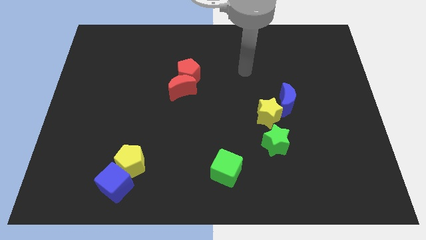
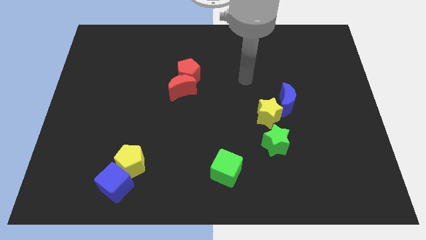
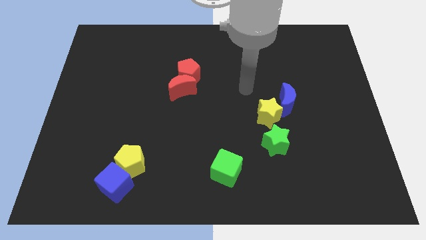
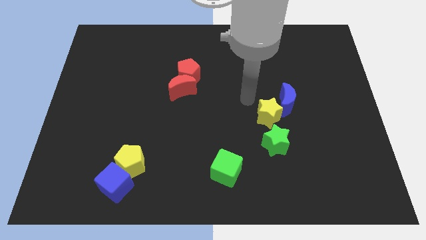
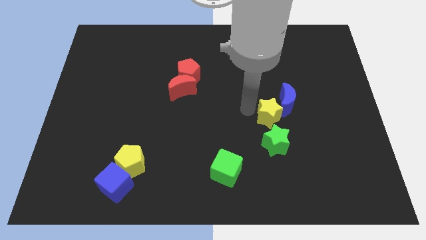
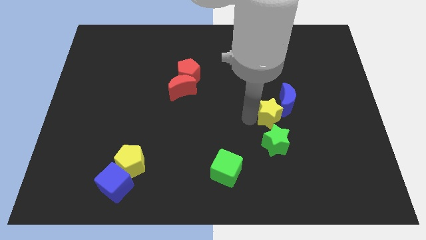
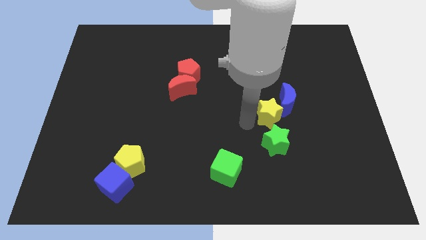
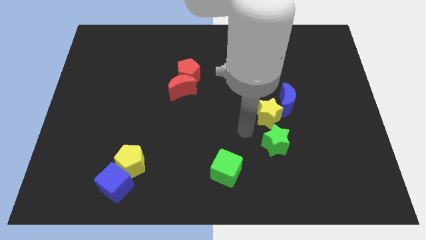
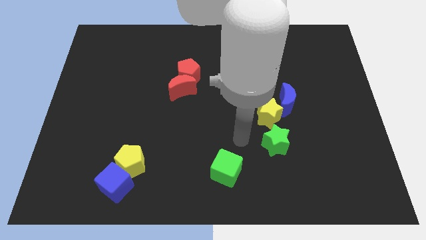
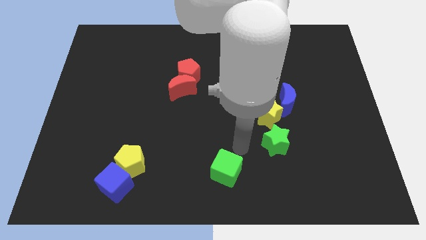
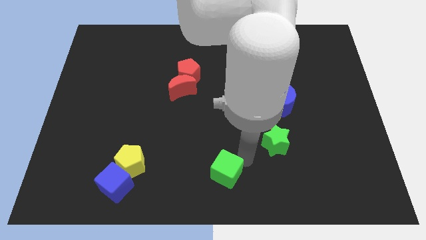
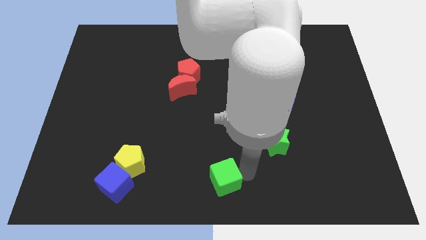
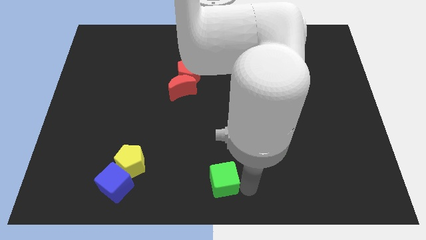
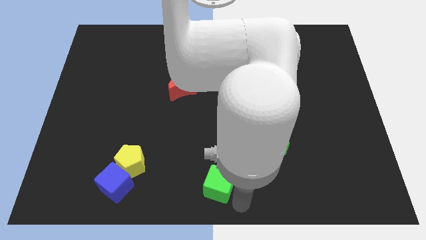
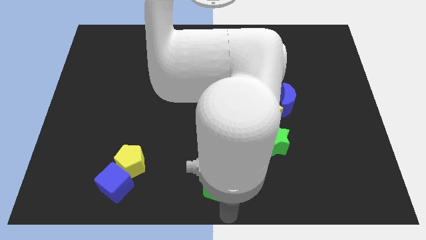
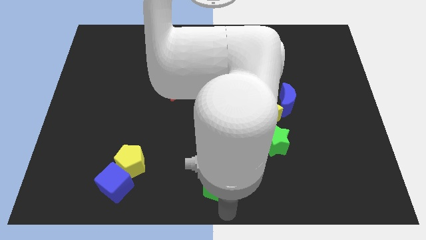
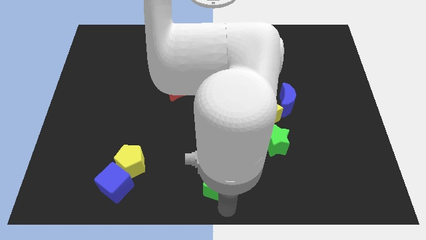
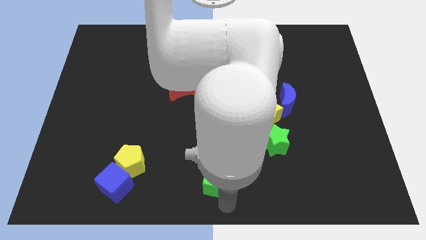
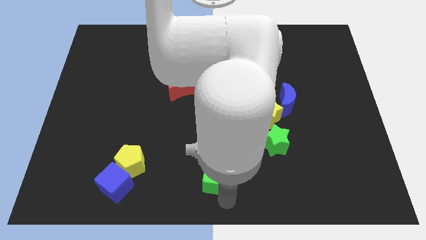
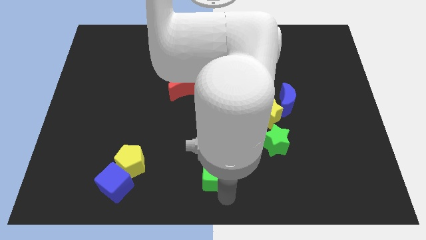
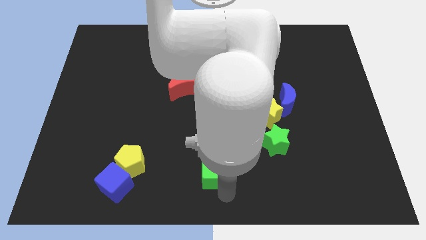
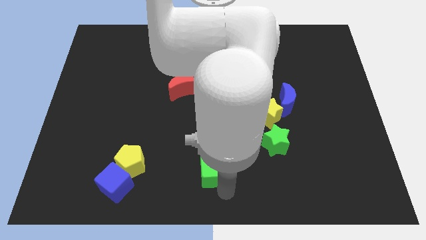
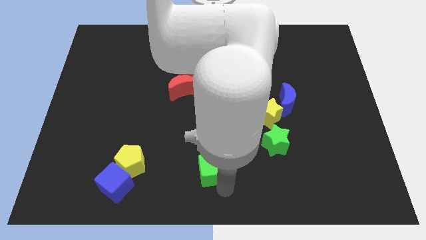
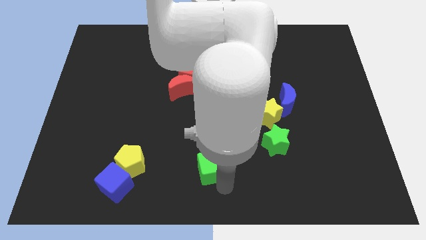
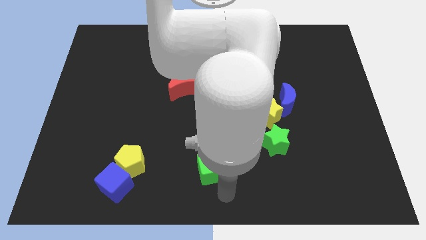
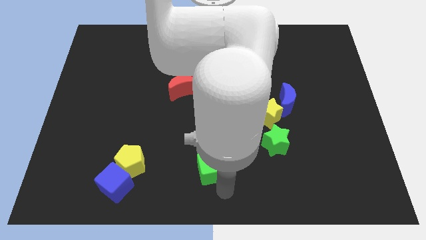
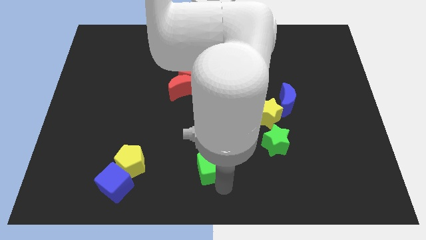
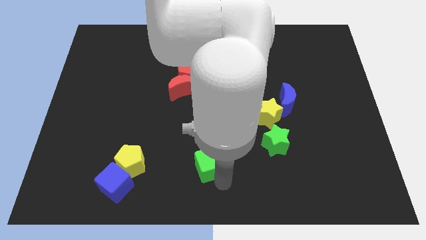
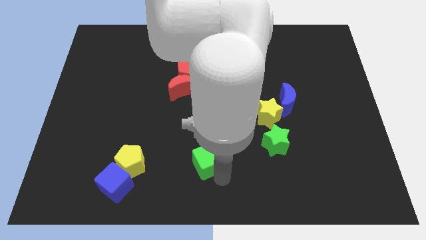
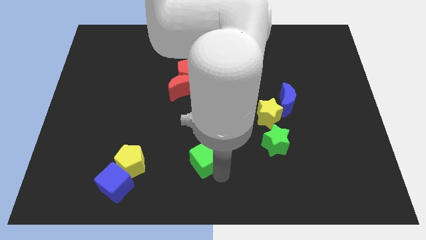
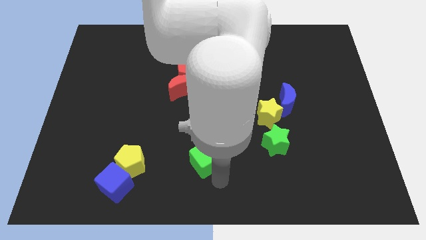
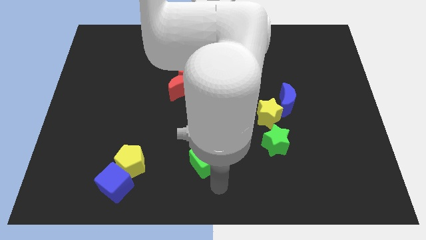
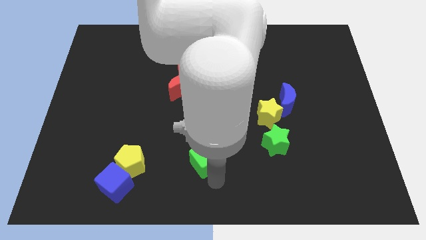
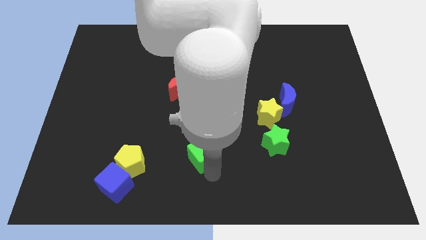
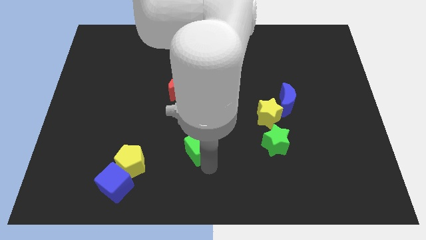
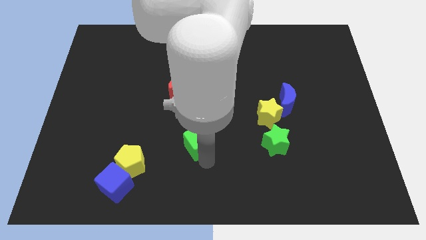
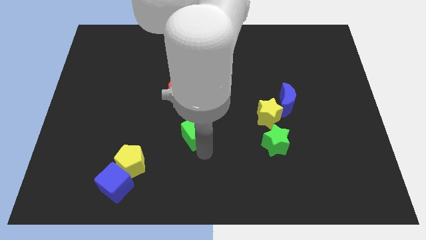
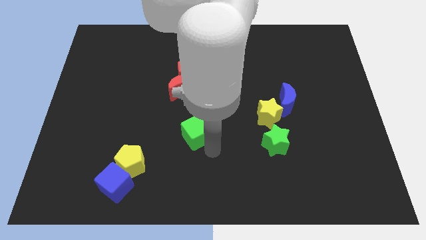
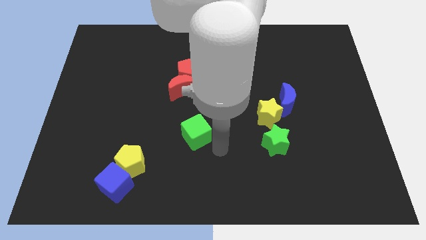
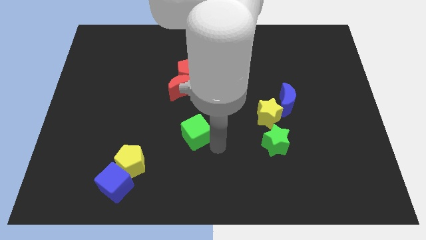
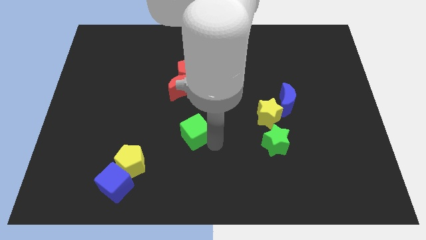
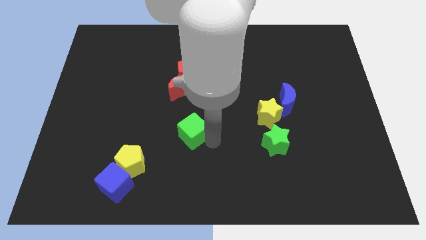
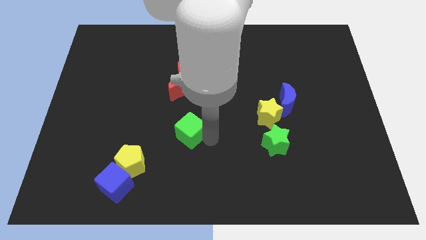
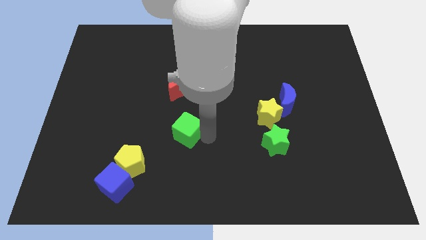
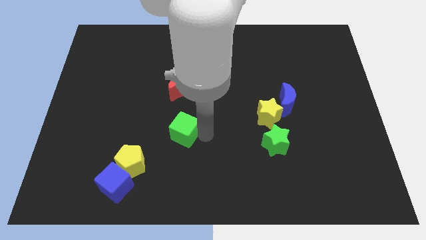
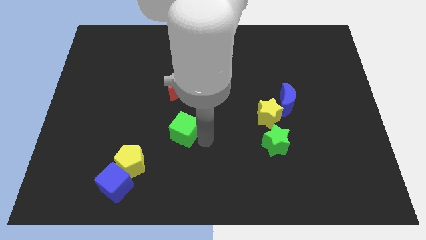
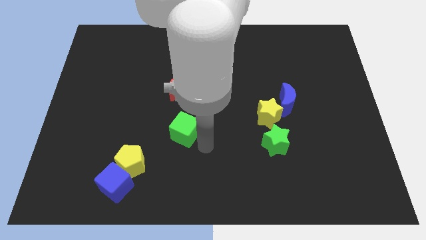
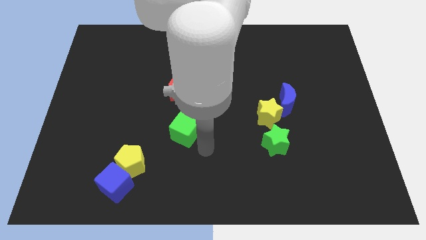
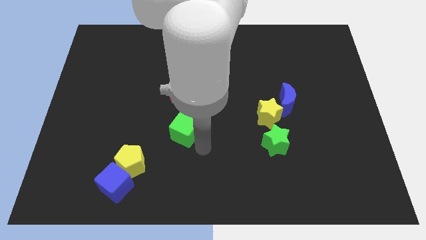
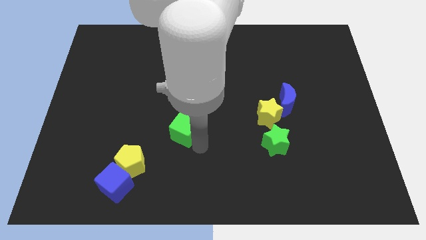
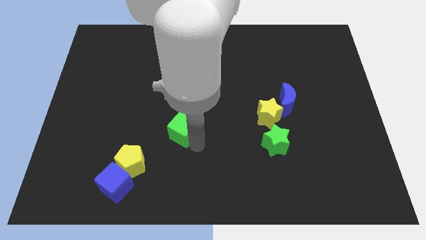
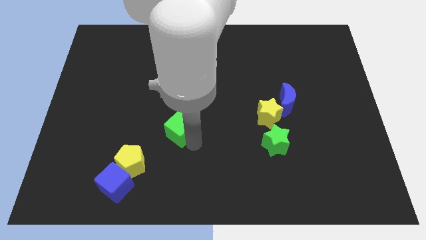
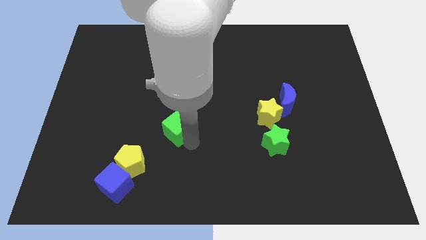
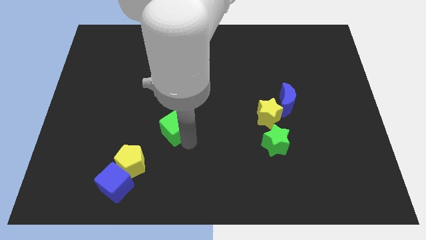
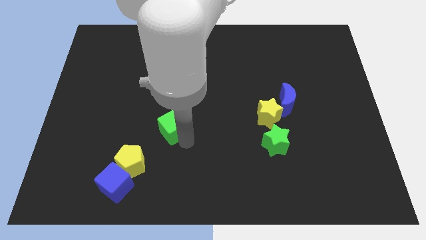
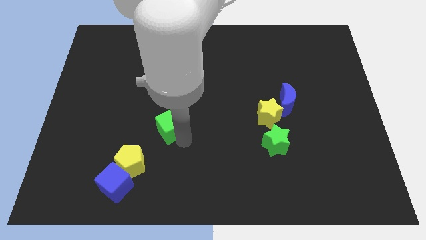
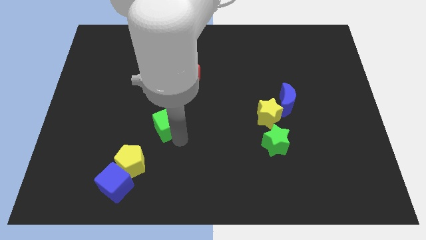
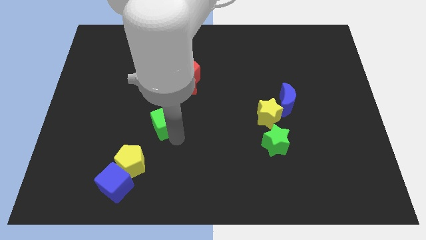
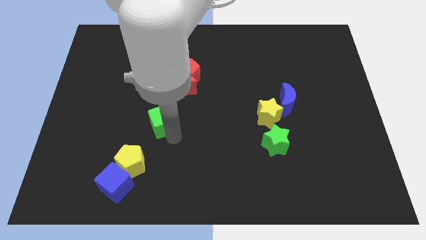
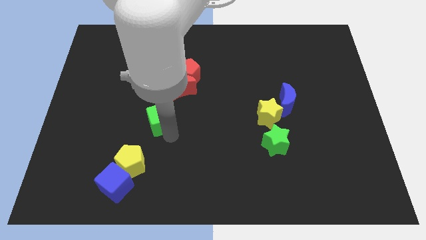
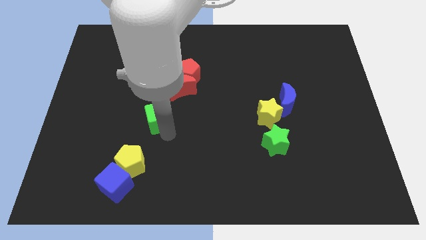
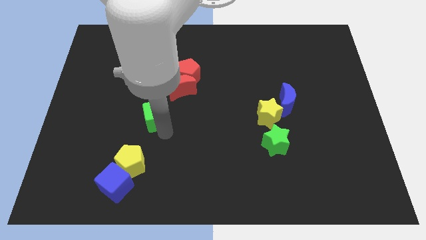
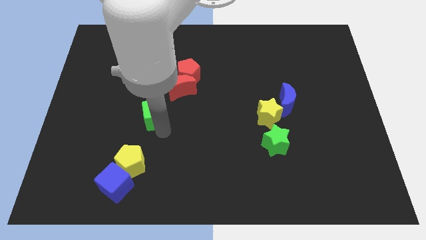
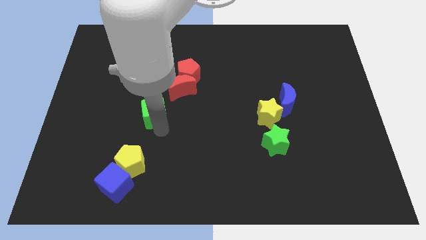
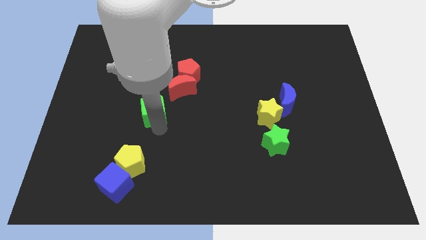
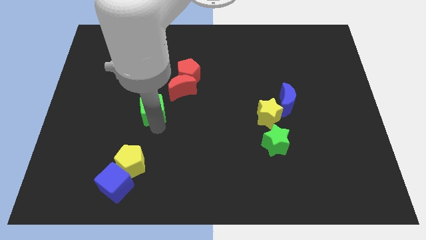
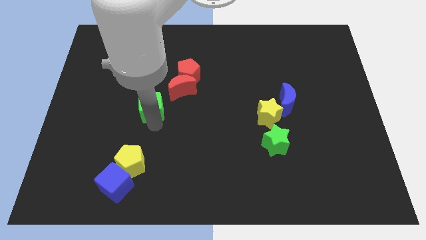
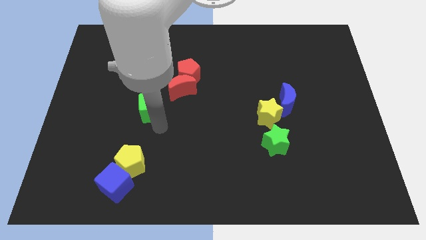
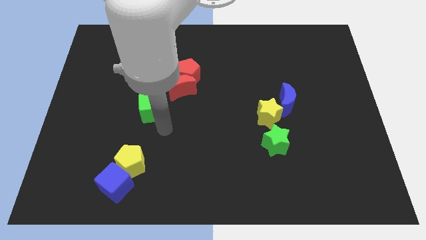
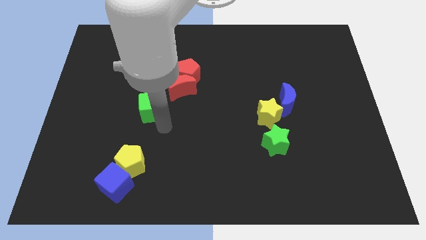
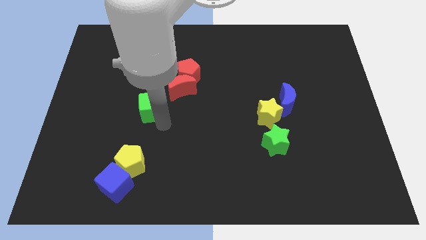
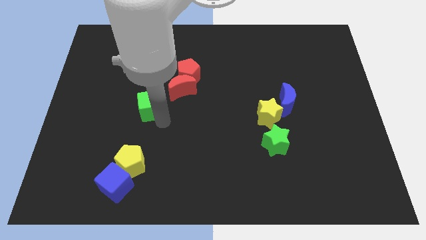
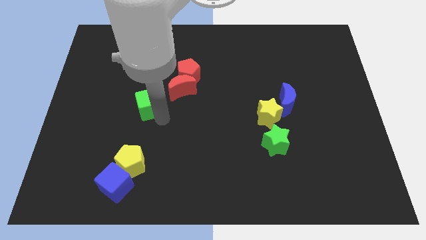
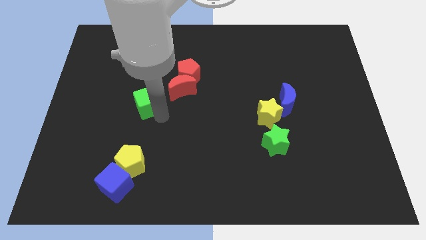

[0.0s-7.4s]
push the green cube to the left of the red moon
